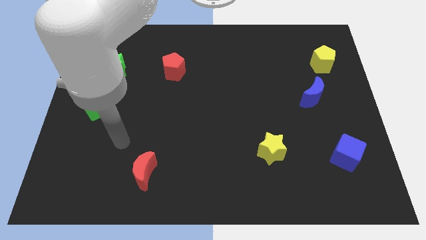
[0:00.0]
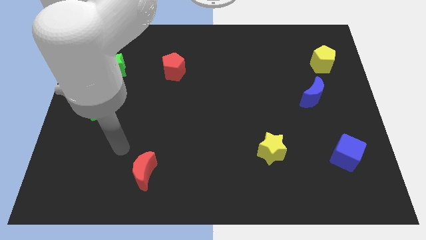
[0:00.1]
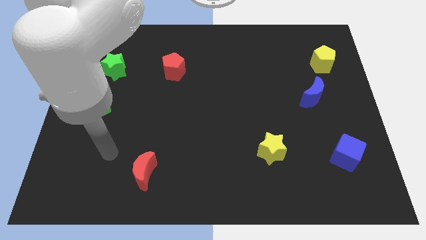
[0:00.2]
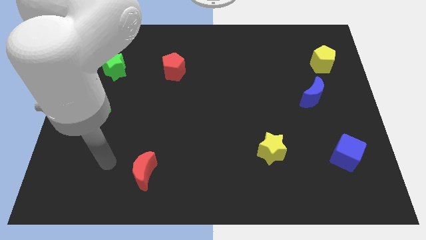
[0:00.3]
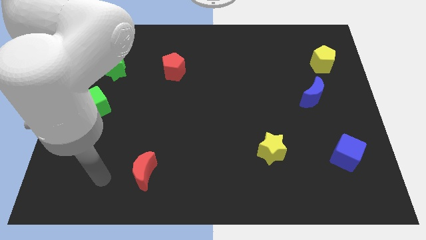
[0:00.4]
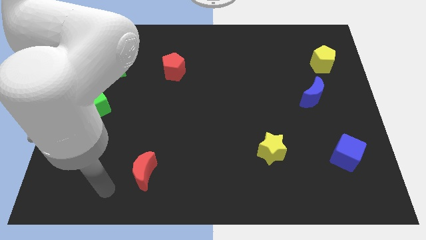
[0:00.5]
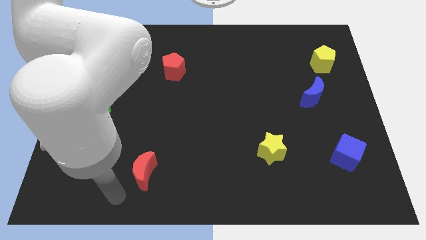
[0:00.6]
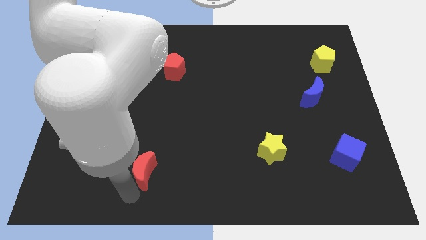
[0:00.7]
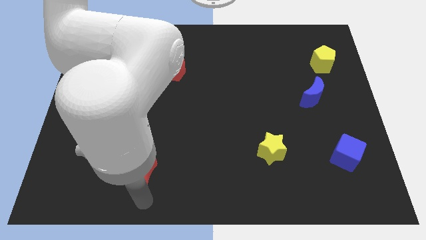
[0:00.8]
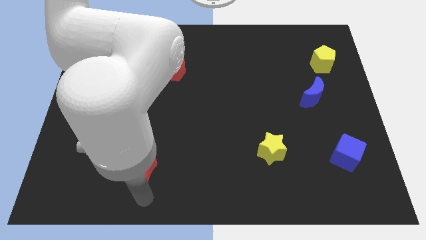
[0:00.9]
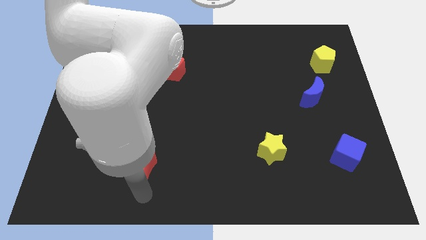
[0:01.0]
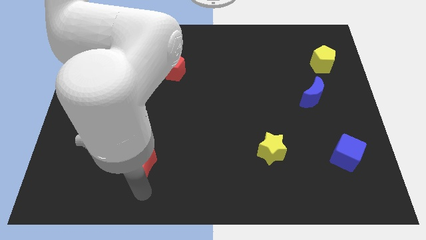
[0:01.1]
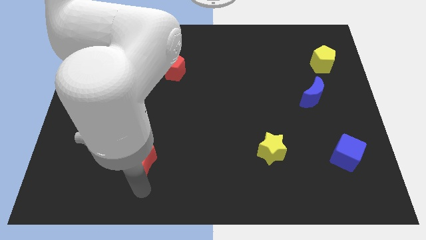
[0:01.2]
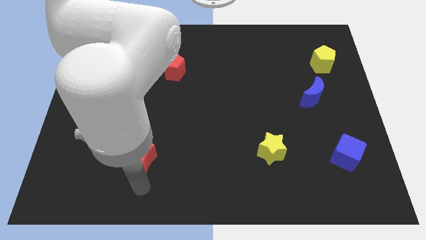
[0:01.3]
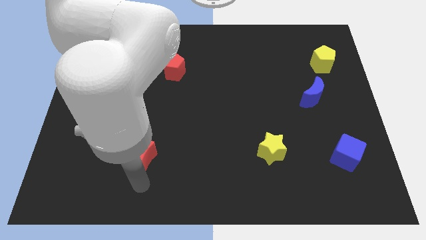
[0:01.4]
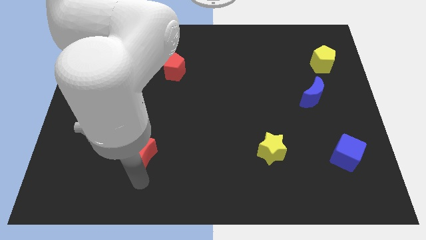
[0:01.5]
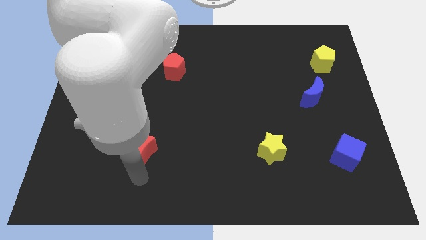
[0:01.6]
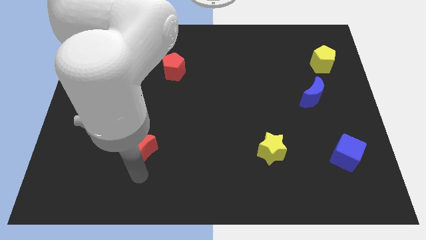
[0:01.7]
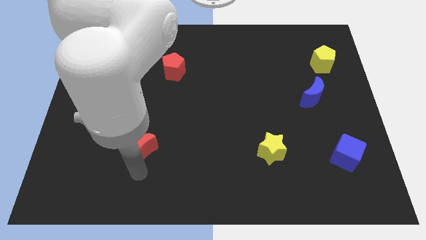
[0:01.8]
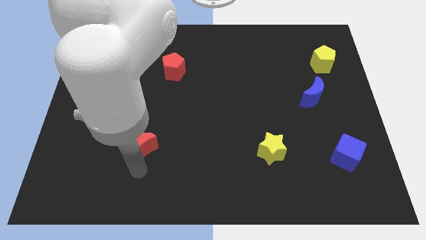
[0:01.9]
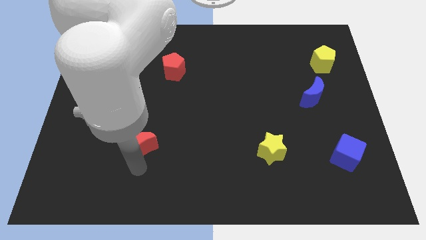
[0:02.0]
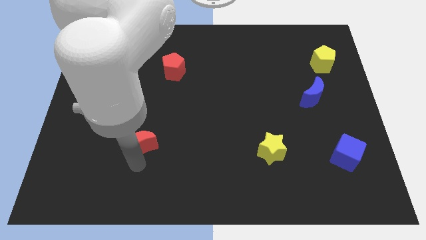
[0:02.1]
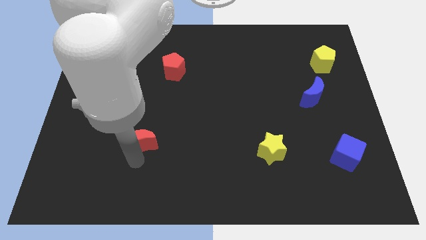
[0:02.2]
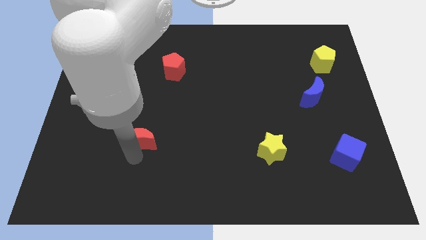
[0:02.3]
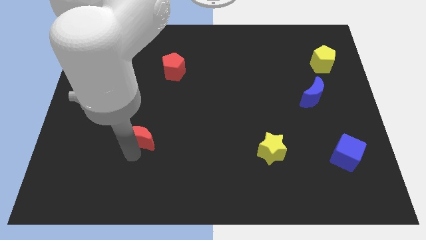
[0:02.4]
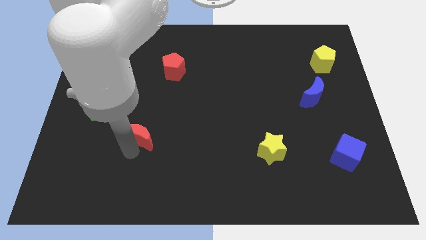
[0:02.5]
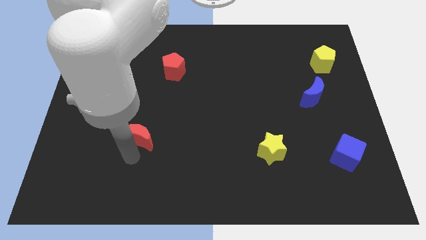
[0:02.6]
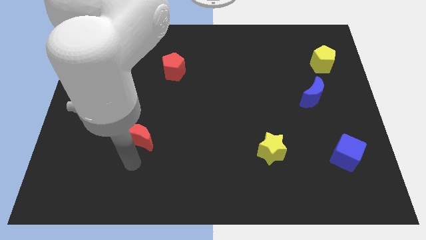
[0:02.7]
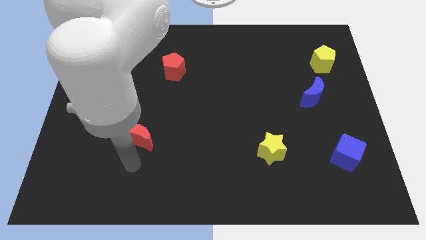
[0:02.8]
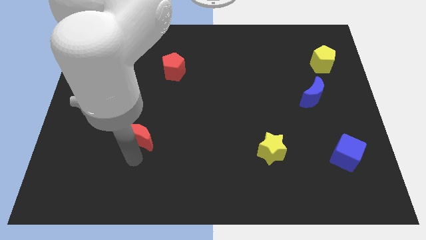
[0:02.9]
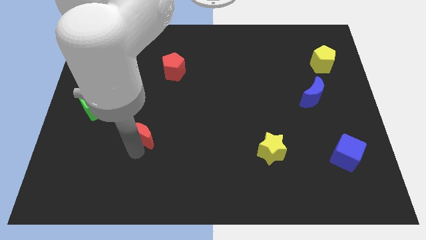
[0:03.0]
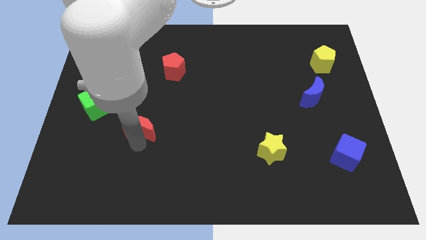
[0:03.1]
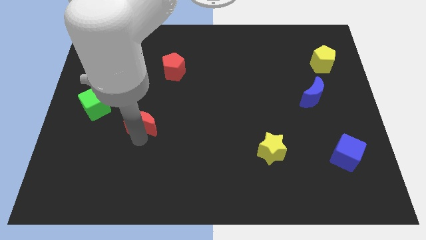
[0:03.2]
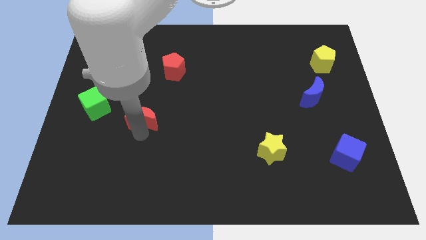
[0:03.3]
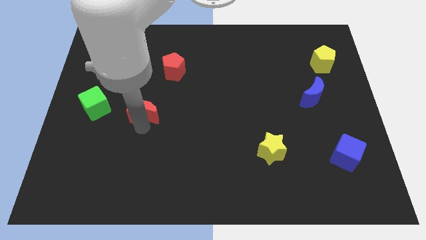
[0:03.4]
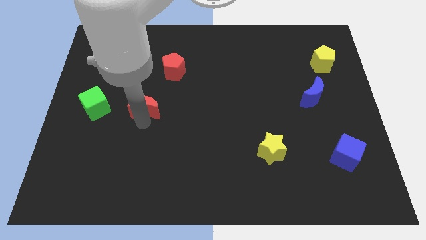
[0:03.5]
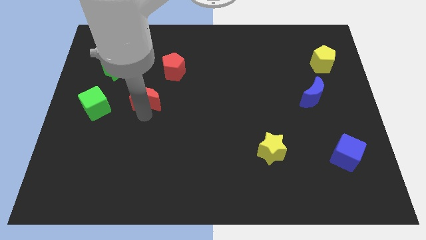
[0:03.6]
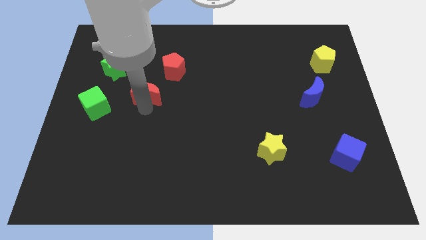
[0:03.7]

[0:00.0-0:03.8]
slide the red moon upwards

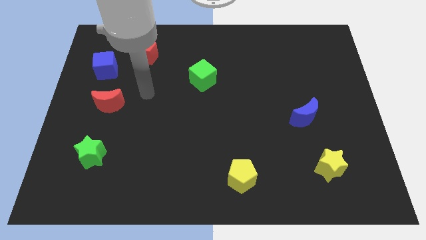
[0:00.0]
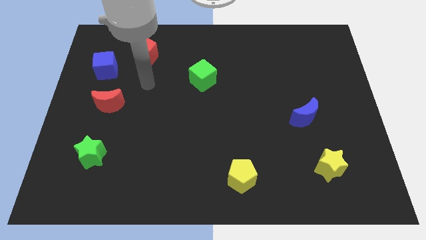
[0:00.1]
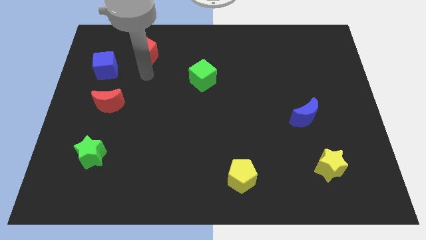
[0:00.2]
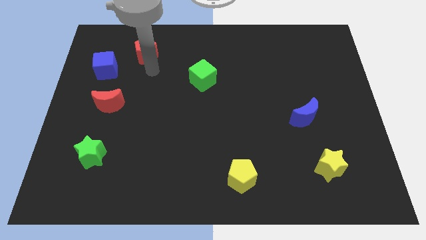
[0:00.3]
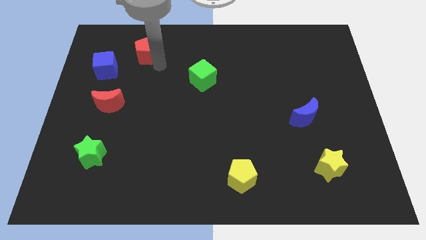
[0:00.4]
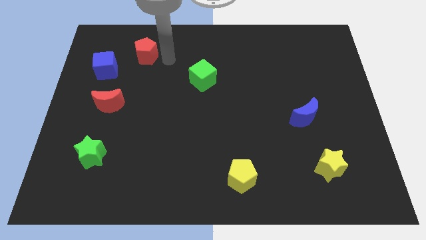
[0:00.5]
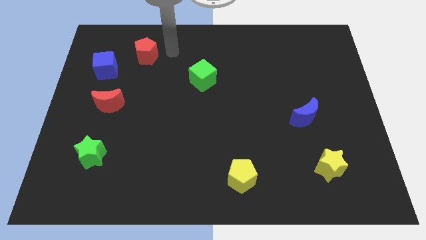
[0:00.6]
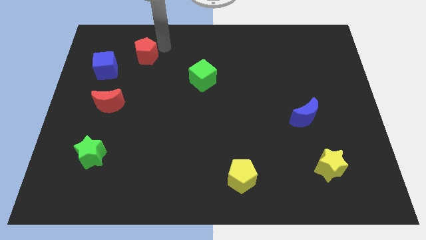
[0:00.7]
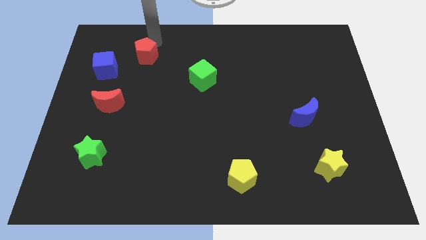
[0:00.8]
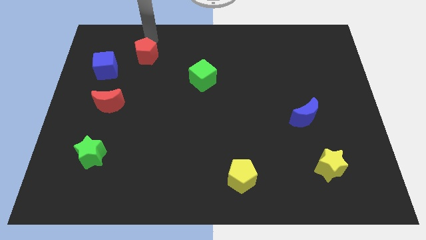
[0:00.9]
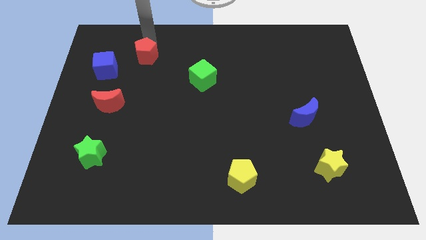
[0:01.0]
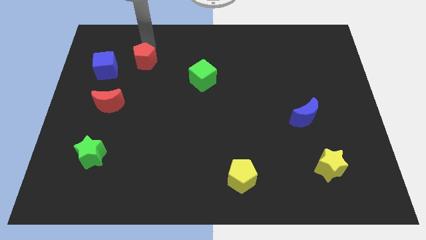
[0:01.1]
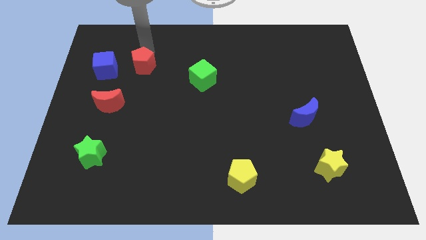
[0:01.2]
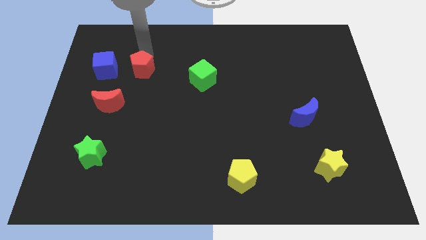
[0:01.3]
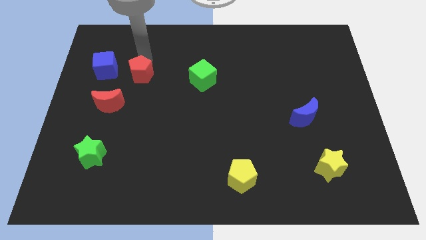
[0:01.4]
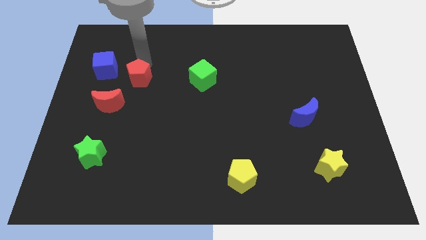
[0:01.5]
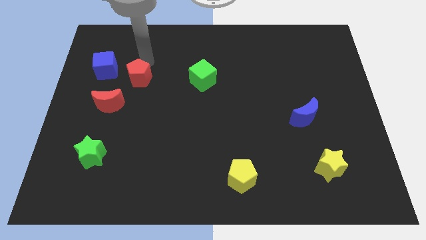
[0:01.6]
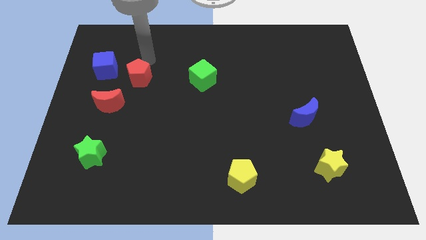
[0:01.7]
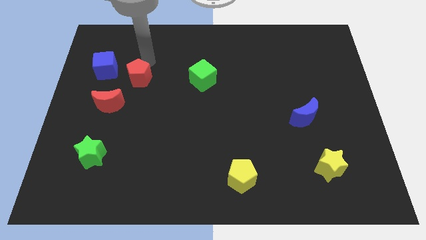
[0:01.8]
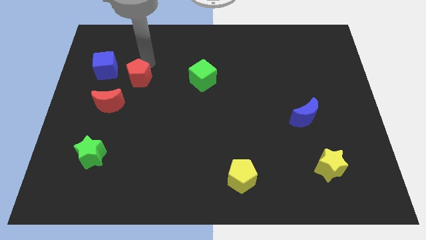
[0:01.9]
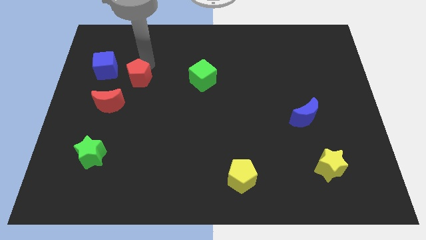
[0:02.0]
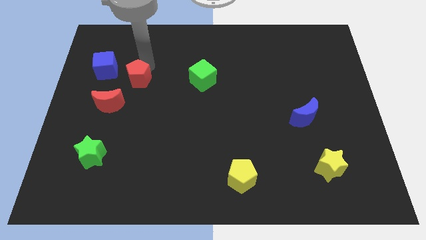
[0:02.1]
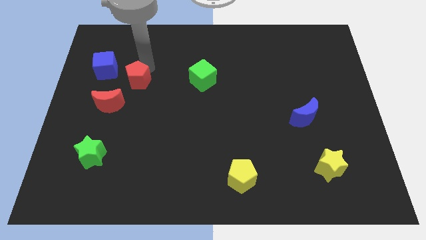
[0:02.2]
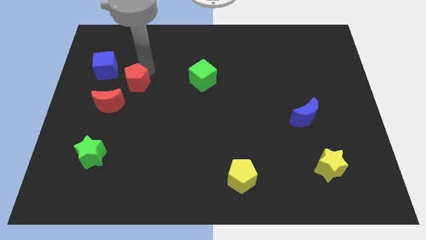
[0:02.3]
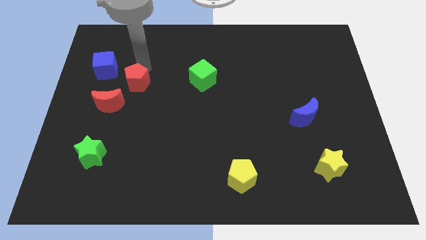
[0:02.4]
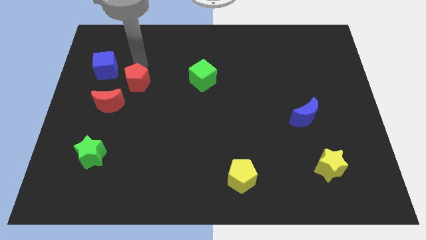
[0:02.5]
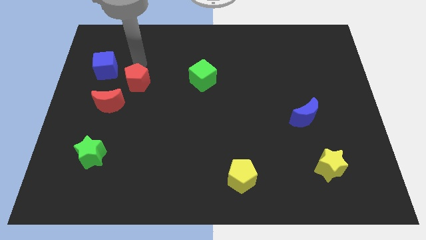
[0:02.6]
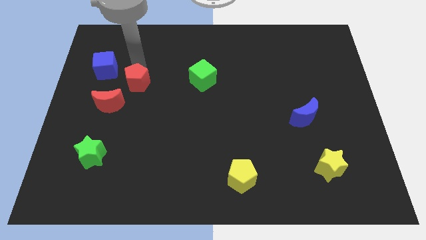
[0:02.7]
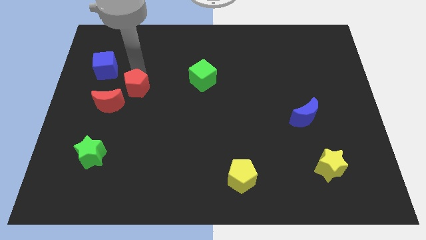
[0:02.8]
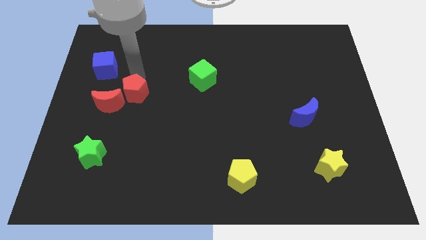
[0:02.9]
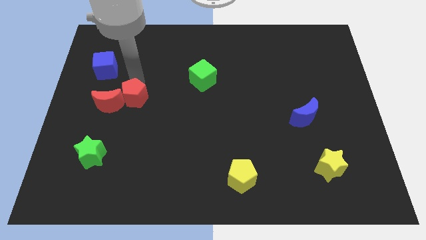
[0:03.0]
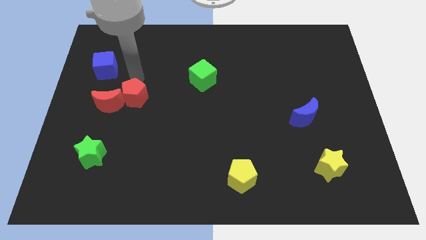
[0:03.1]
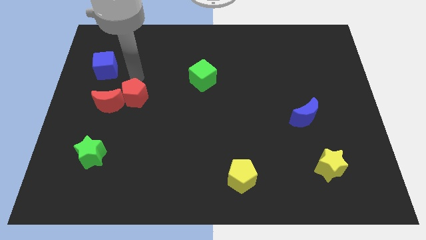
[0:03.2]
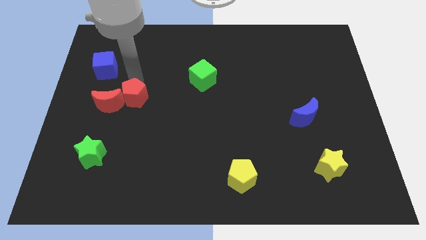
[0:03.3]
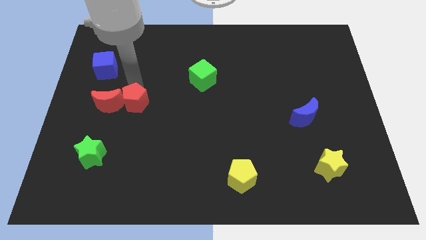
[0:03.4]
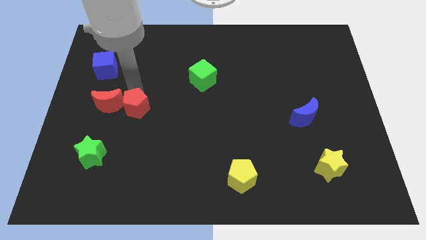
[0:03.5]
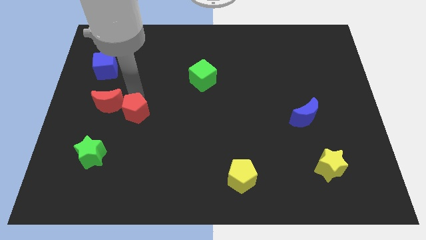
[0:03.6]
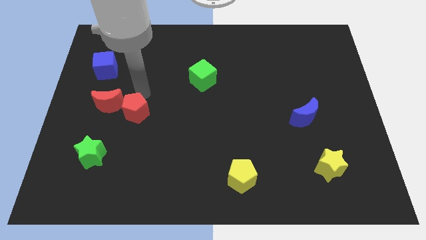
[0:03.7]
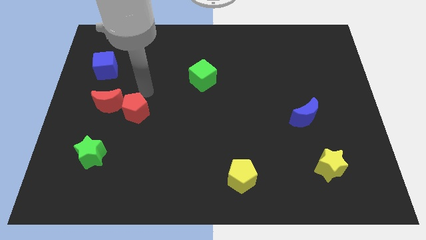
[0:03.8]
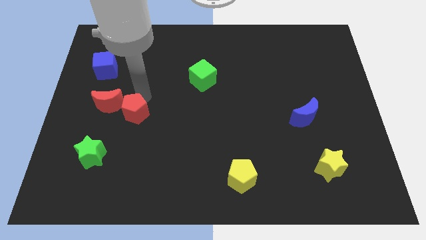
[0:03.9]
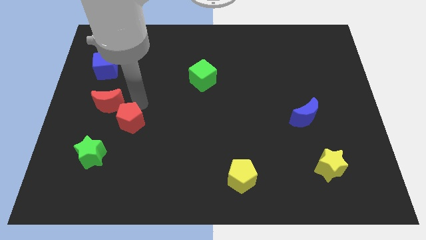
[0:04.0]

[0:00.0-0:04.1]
move the red pentagon down
